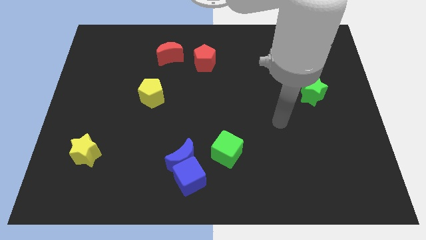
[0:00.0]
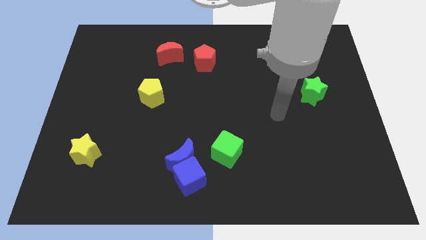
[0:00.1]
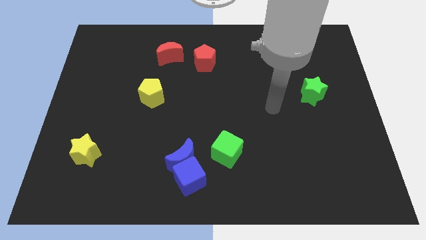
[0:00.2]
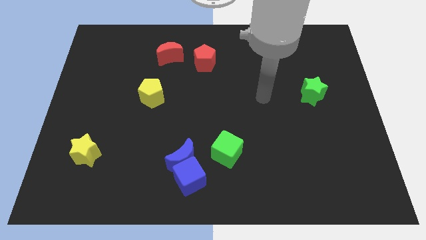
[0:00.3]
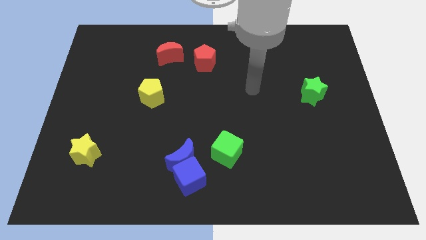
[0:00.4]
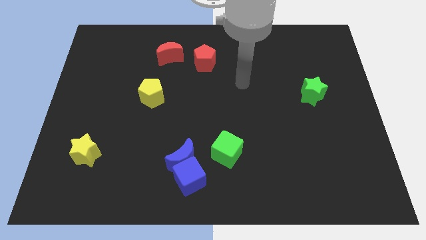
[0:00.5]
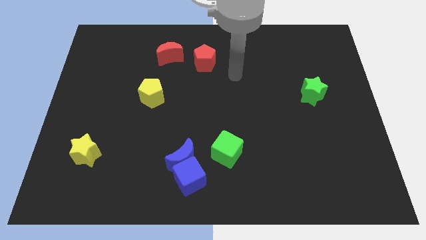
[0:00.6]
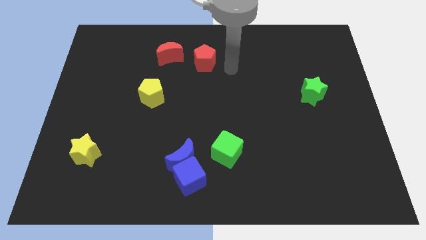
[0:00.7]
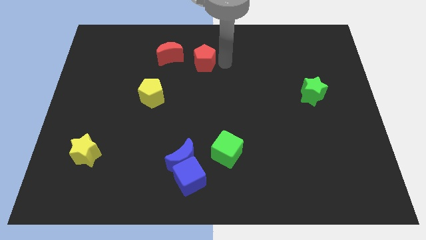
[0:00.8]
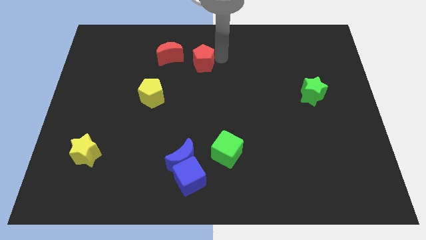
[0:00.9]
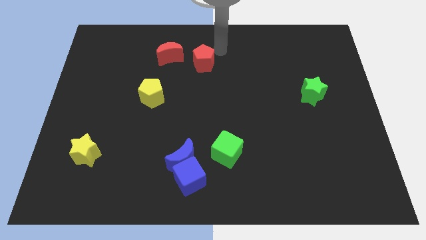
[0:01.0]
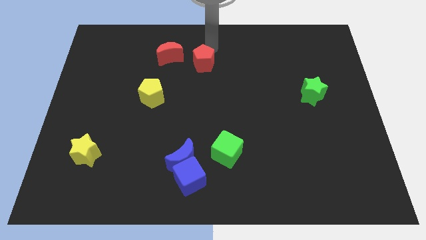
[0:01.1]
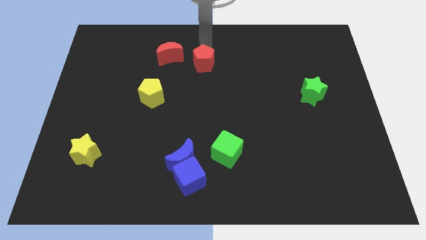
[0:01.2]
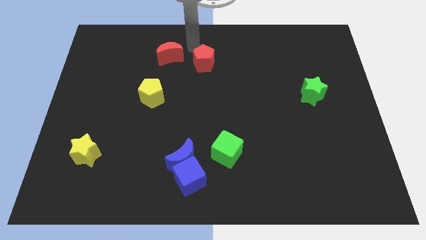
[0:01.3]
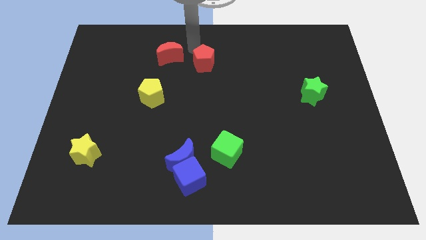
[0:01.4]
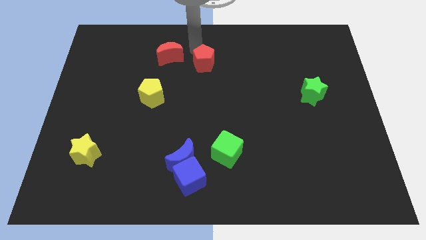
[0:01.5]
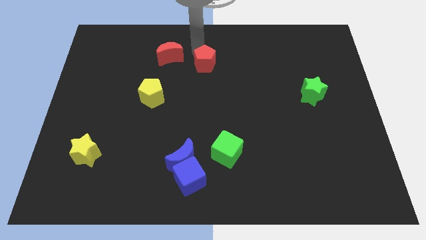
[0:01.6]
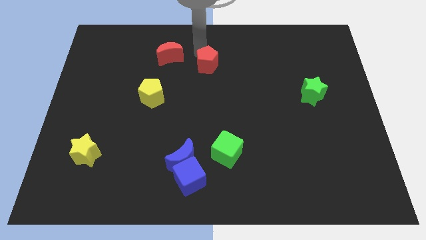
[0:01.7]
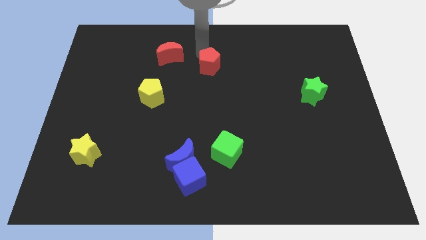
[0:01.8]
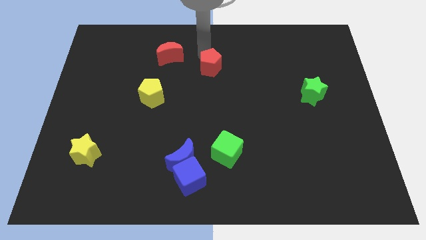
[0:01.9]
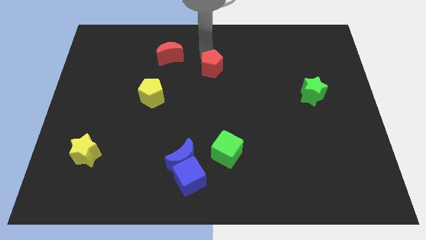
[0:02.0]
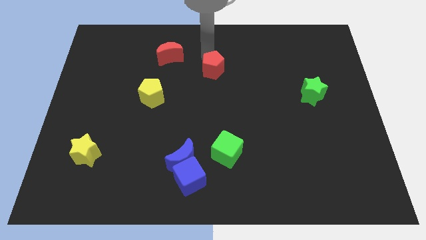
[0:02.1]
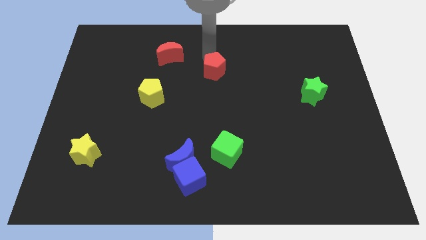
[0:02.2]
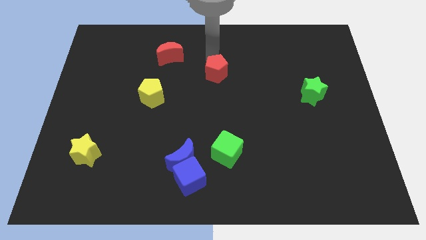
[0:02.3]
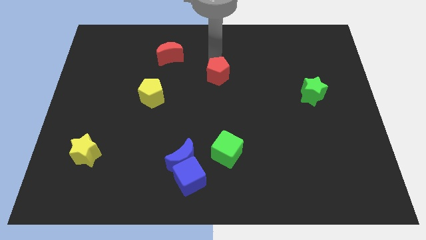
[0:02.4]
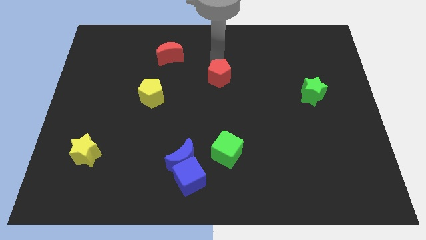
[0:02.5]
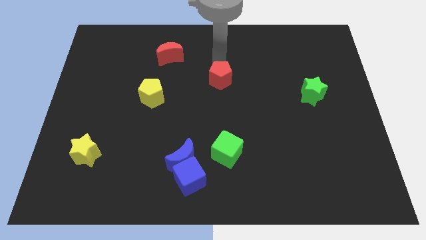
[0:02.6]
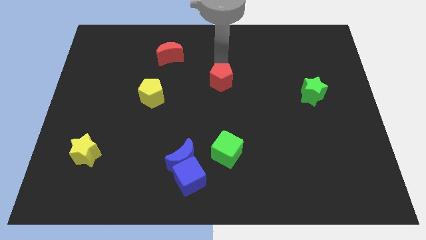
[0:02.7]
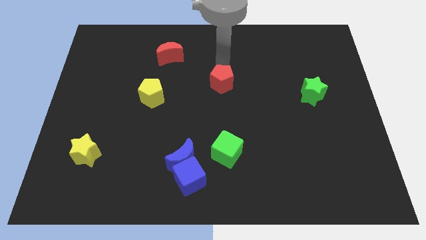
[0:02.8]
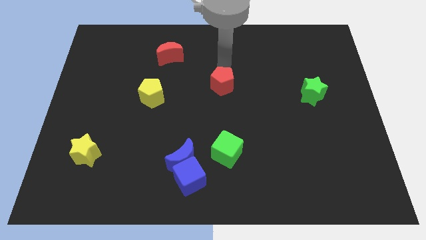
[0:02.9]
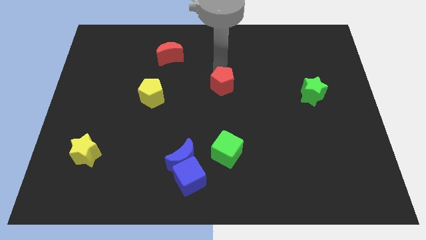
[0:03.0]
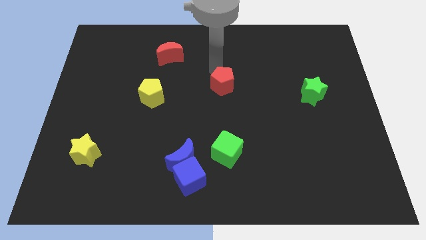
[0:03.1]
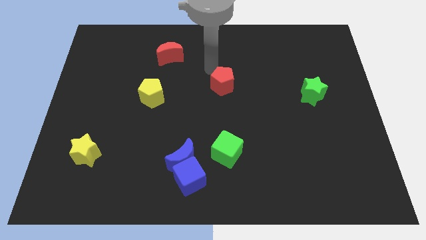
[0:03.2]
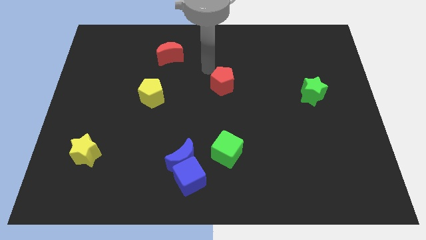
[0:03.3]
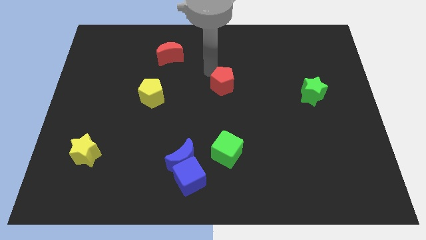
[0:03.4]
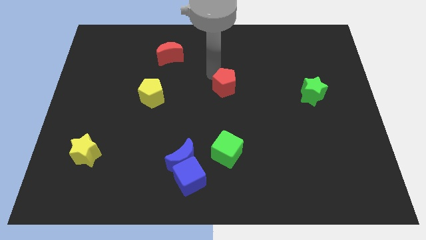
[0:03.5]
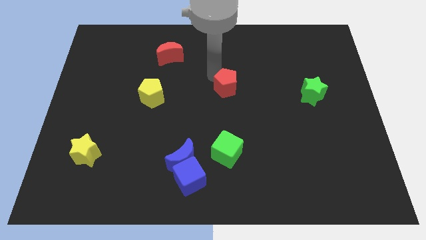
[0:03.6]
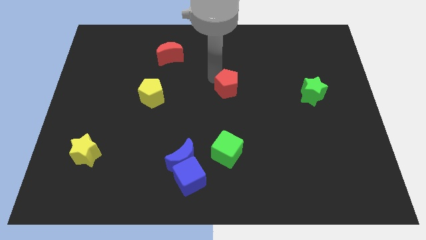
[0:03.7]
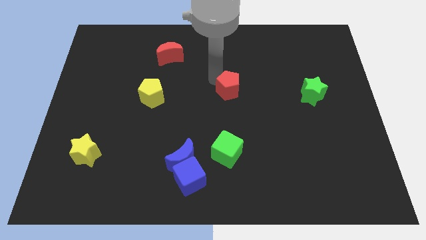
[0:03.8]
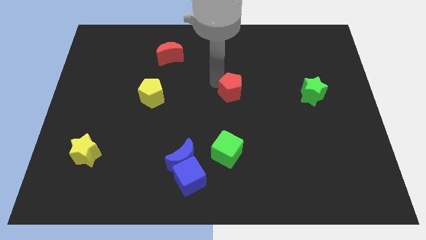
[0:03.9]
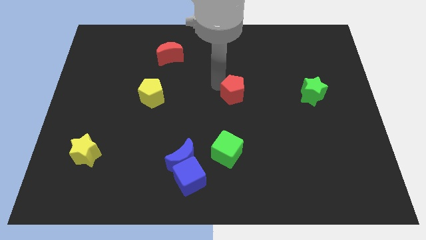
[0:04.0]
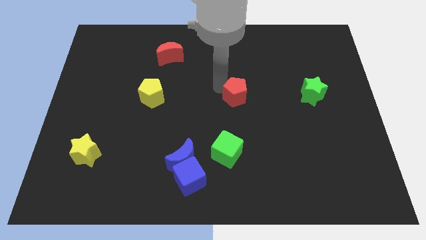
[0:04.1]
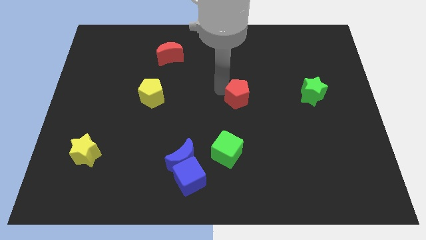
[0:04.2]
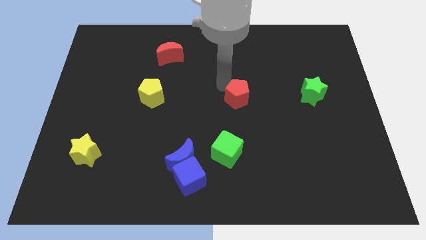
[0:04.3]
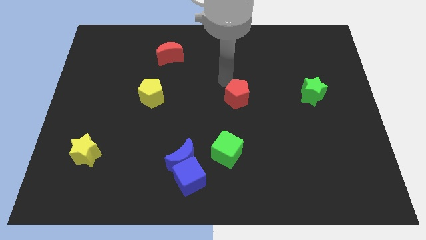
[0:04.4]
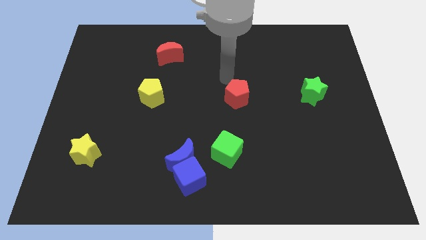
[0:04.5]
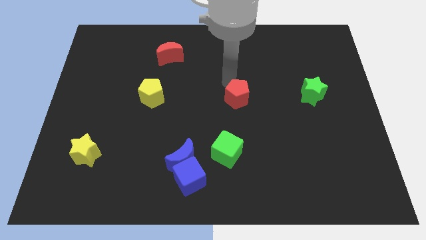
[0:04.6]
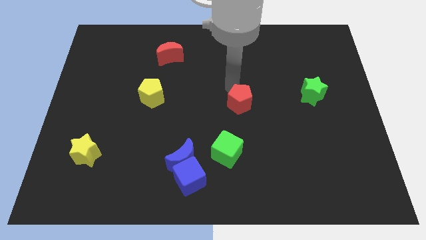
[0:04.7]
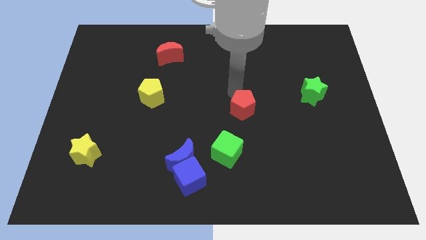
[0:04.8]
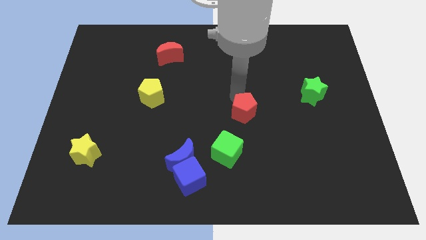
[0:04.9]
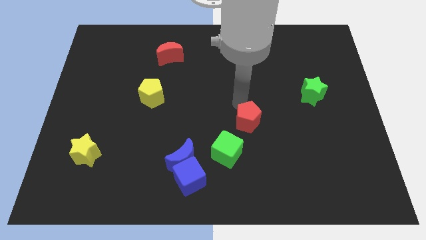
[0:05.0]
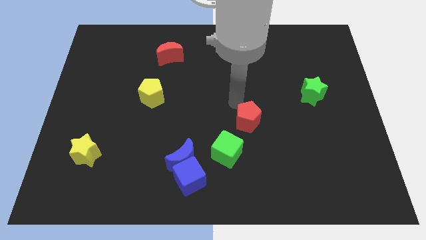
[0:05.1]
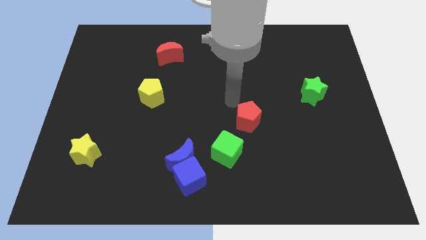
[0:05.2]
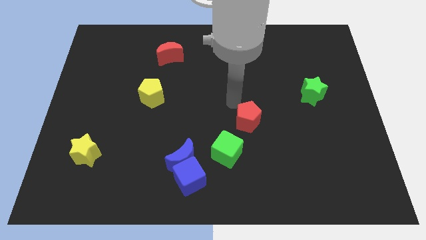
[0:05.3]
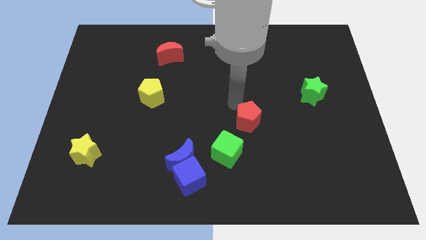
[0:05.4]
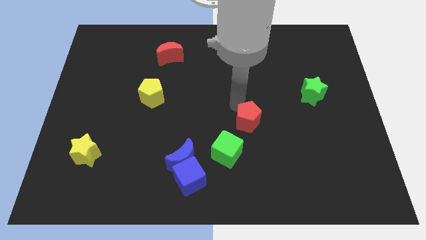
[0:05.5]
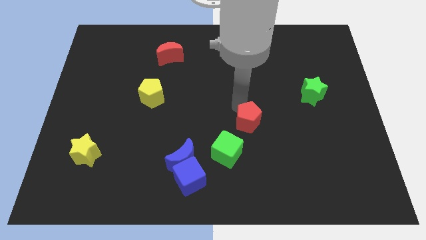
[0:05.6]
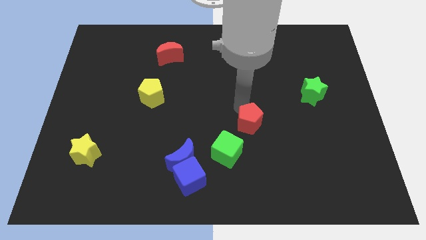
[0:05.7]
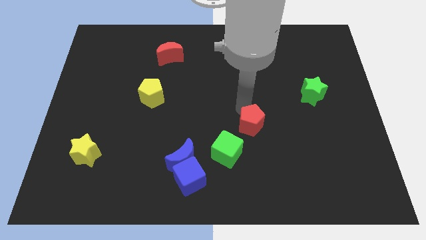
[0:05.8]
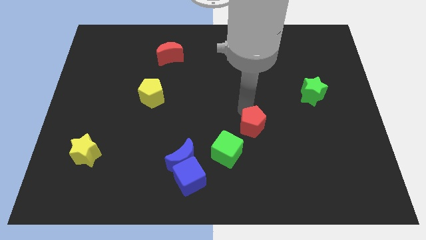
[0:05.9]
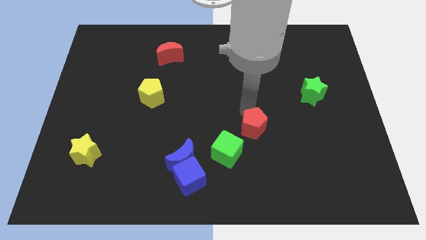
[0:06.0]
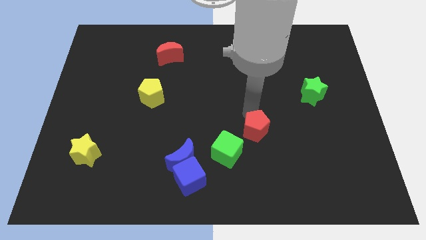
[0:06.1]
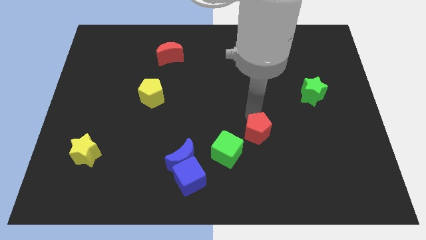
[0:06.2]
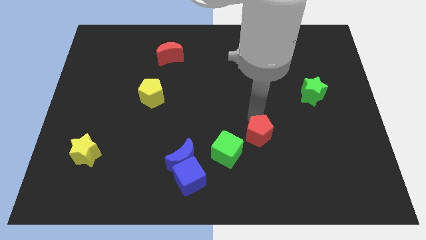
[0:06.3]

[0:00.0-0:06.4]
push the red pentagon just right of the green cube

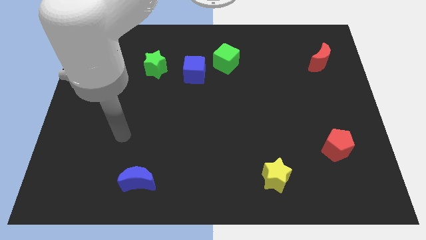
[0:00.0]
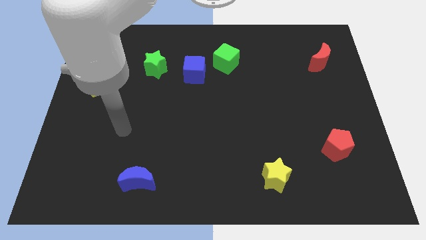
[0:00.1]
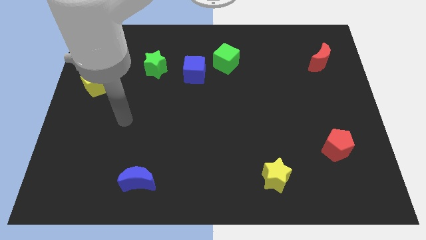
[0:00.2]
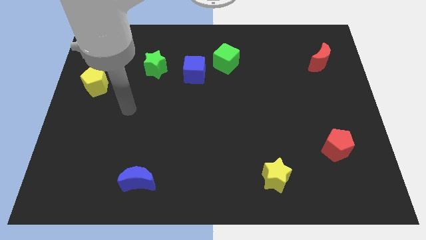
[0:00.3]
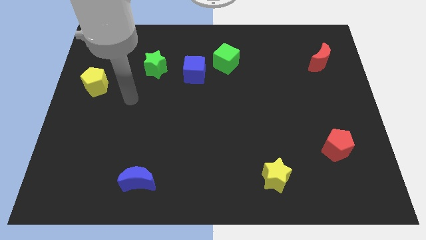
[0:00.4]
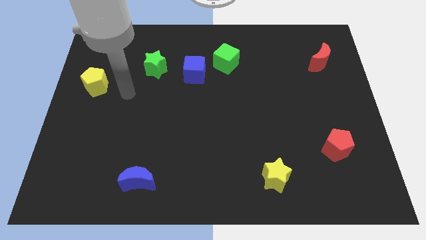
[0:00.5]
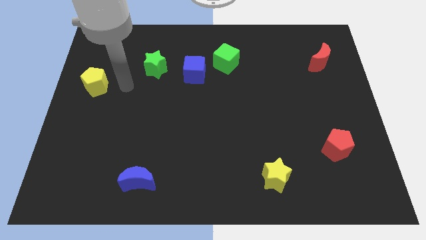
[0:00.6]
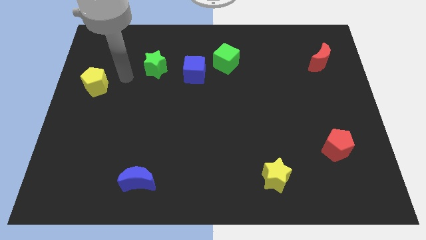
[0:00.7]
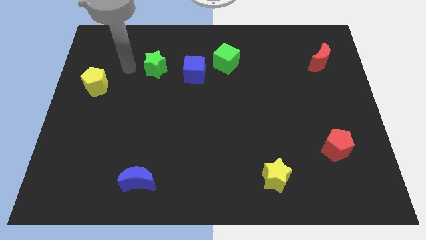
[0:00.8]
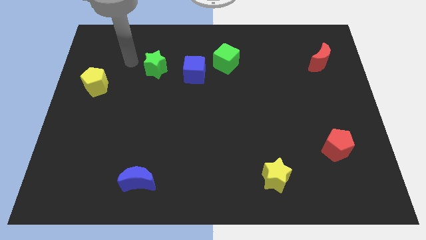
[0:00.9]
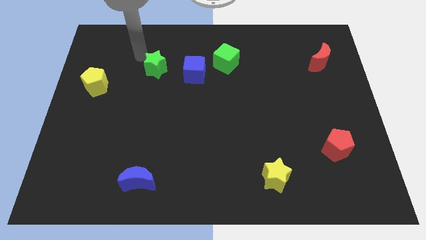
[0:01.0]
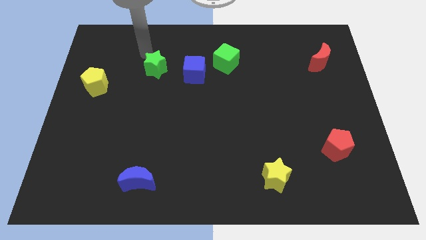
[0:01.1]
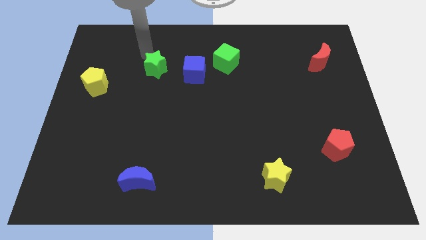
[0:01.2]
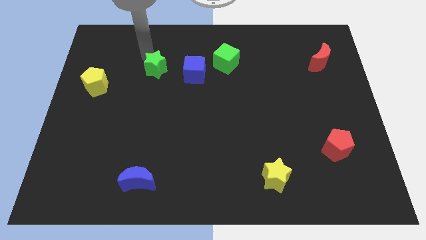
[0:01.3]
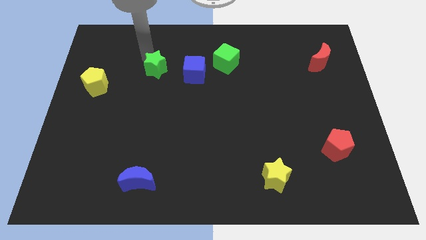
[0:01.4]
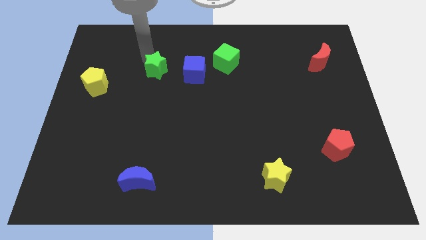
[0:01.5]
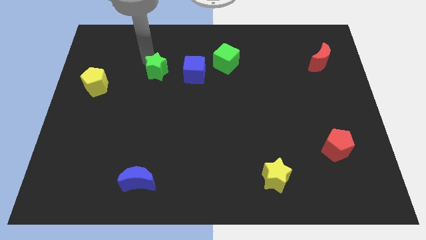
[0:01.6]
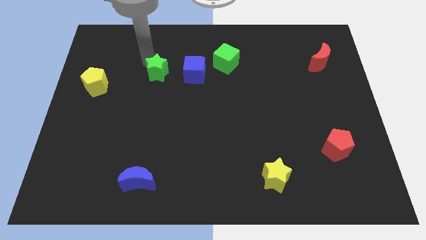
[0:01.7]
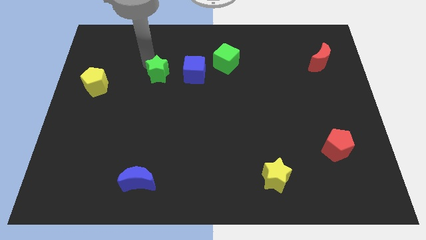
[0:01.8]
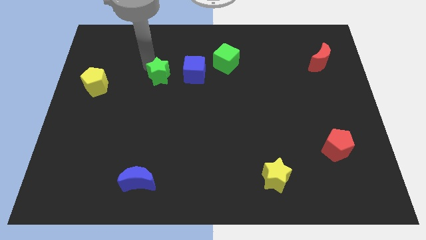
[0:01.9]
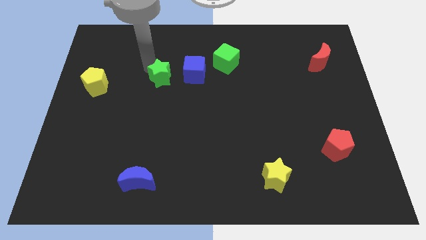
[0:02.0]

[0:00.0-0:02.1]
slide the green star to the bottom left side of the blue cube

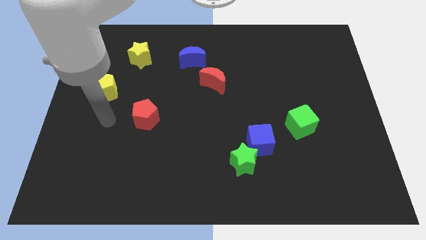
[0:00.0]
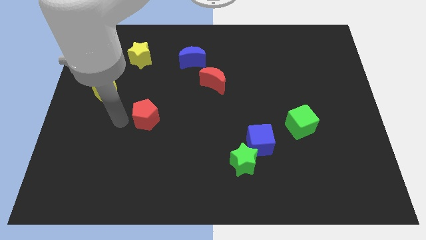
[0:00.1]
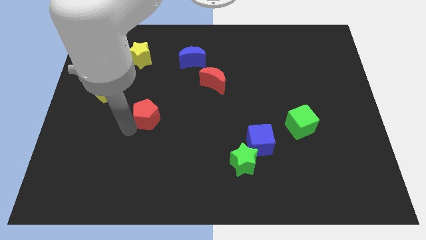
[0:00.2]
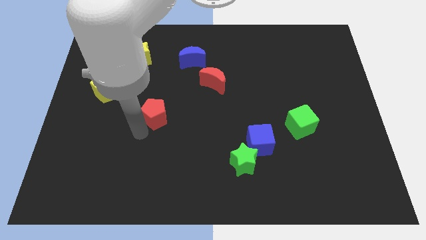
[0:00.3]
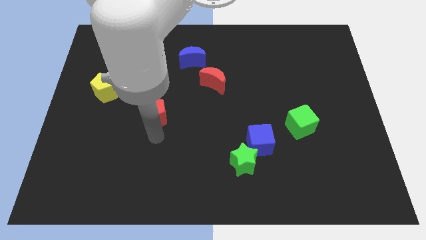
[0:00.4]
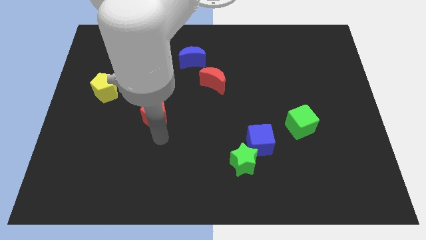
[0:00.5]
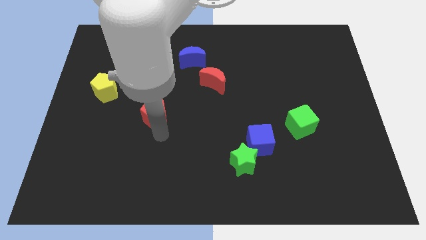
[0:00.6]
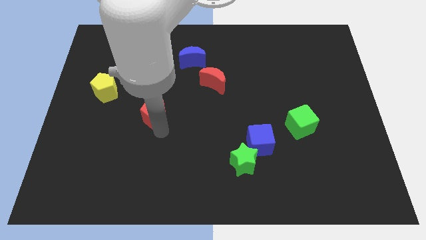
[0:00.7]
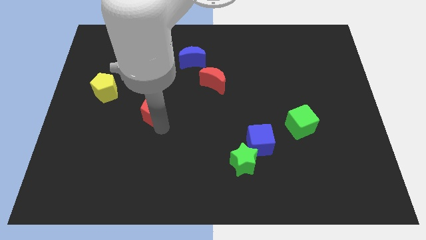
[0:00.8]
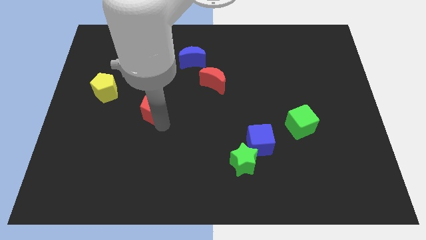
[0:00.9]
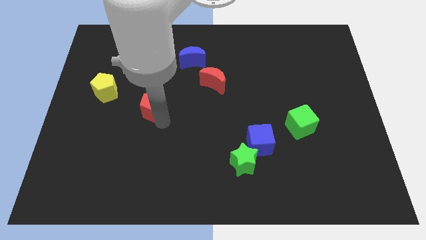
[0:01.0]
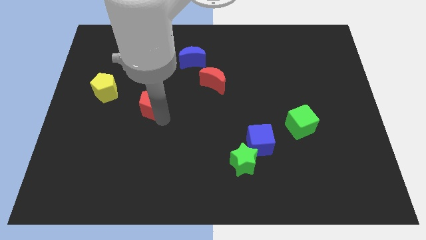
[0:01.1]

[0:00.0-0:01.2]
put the red pentagon just right of the yellow pentagon
